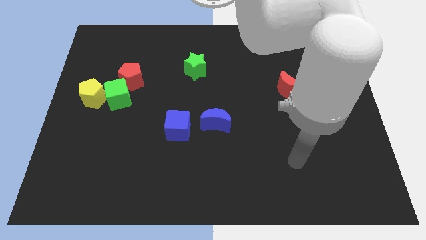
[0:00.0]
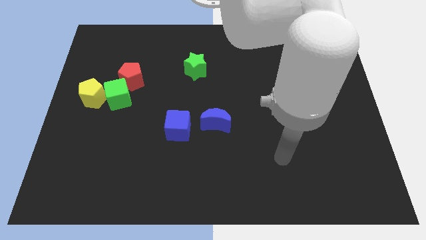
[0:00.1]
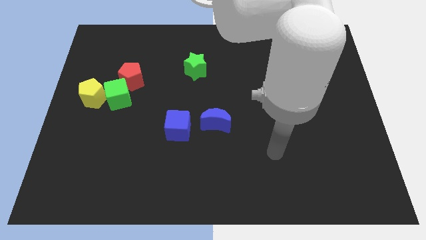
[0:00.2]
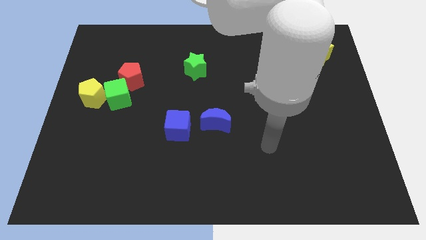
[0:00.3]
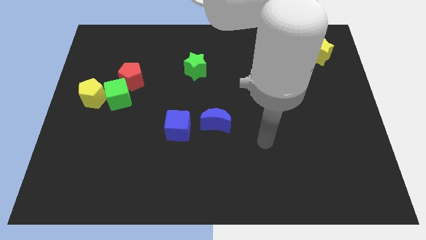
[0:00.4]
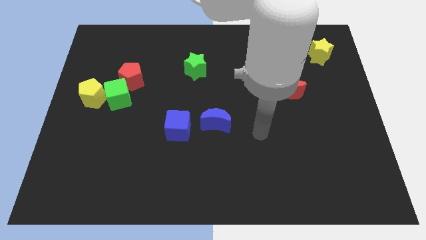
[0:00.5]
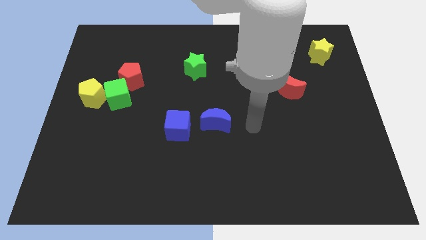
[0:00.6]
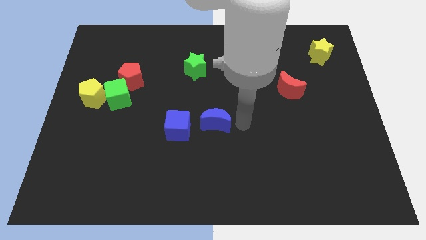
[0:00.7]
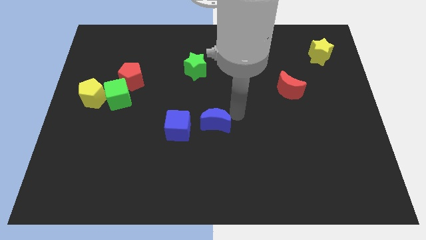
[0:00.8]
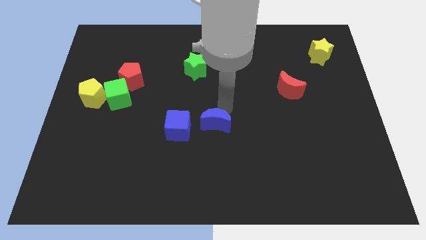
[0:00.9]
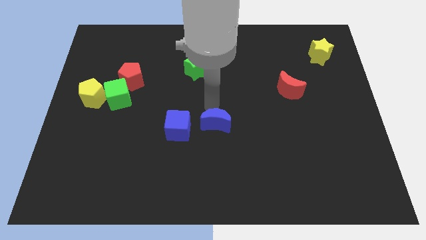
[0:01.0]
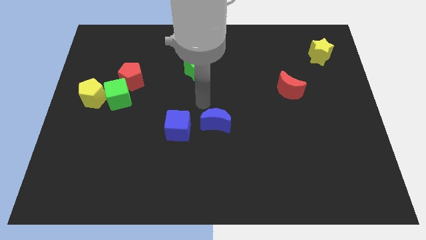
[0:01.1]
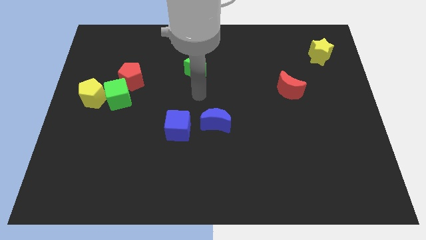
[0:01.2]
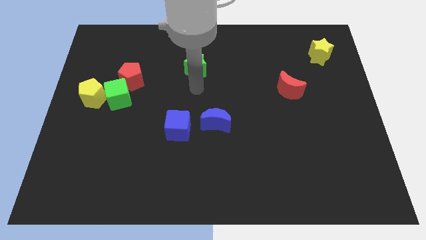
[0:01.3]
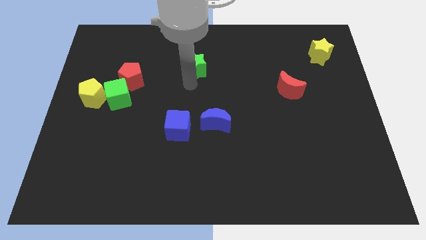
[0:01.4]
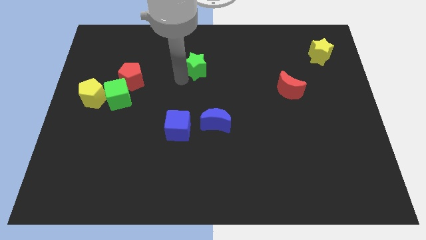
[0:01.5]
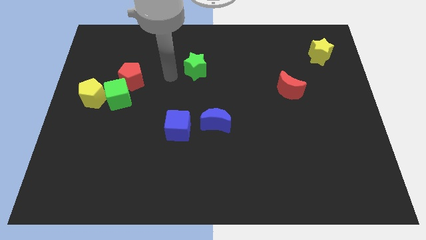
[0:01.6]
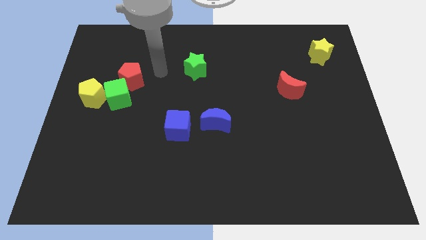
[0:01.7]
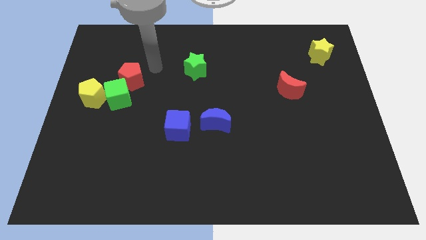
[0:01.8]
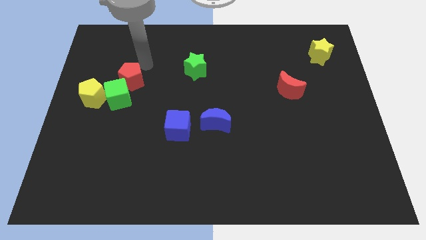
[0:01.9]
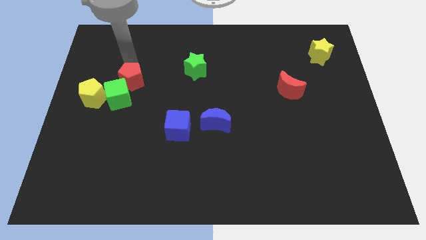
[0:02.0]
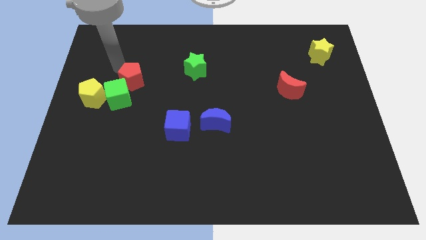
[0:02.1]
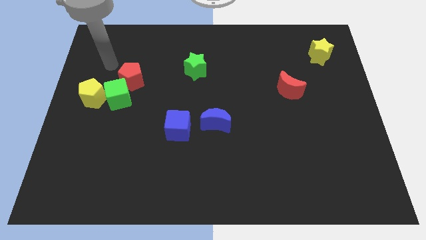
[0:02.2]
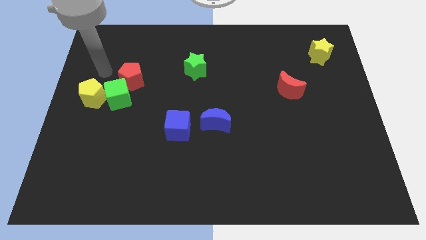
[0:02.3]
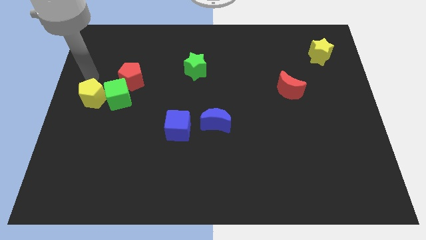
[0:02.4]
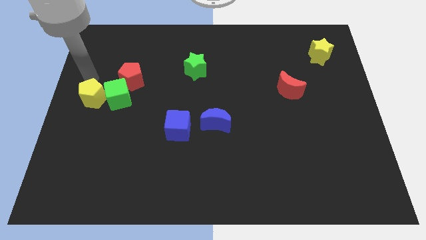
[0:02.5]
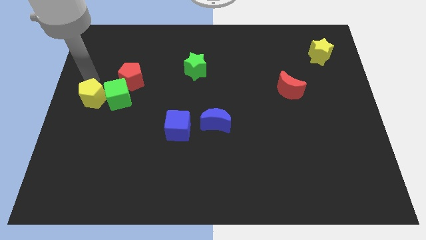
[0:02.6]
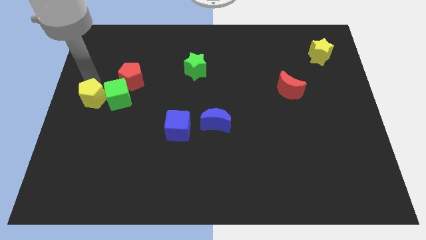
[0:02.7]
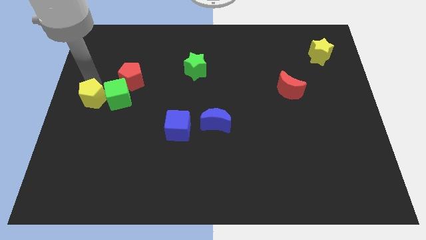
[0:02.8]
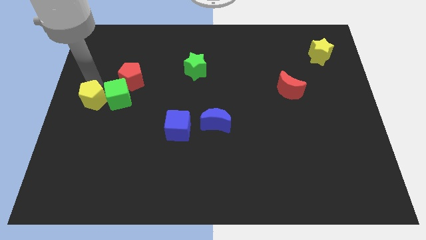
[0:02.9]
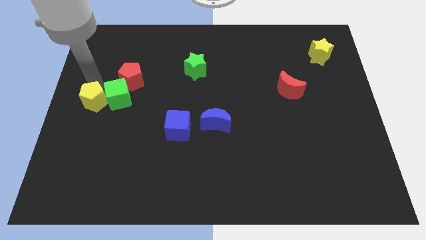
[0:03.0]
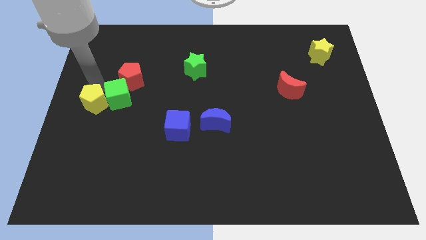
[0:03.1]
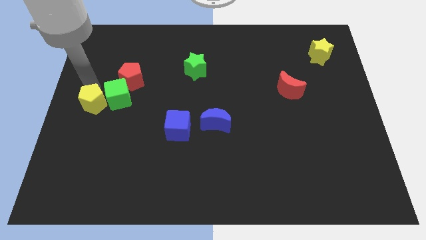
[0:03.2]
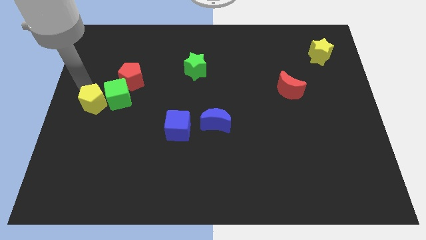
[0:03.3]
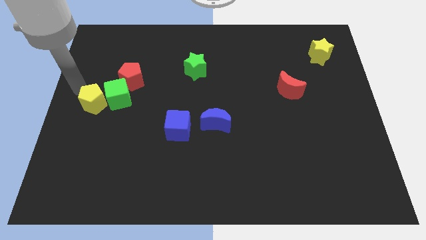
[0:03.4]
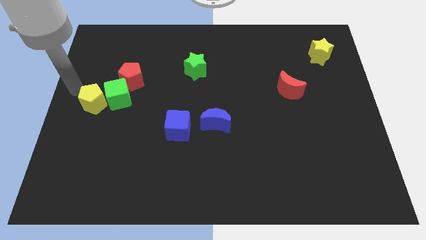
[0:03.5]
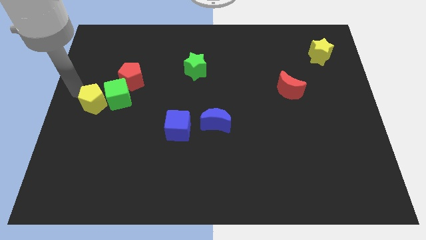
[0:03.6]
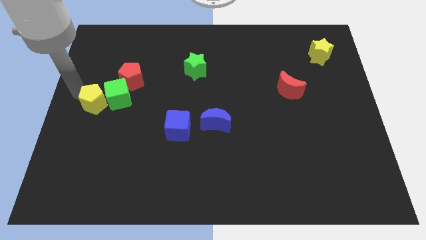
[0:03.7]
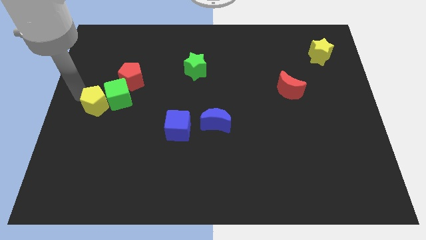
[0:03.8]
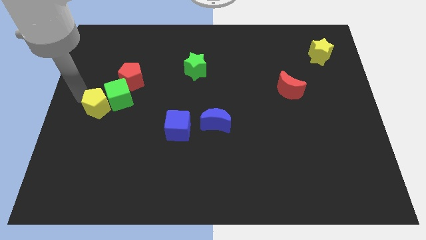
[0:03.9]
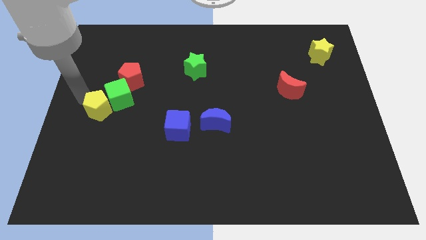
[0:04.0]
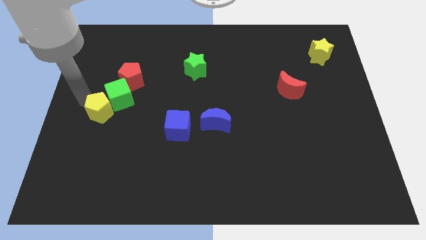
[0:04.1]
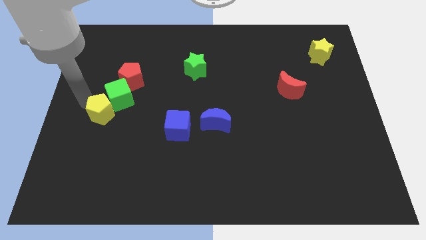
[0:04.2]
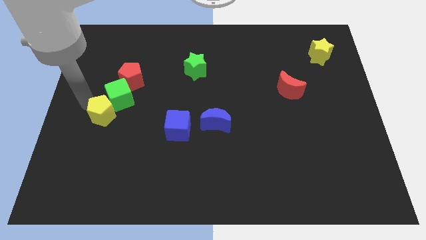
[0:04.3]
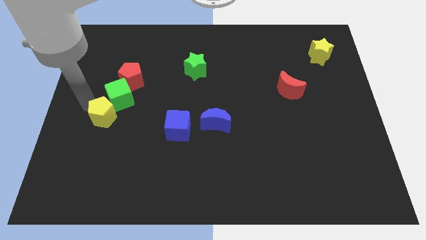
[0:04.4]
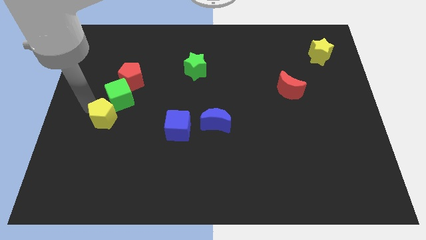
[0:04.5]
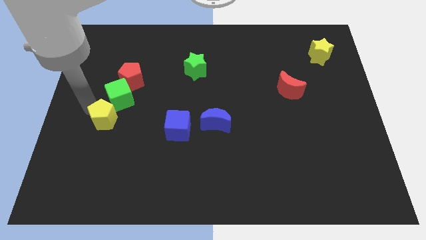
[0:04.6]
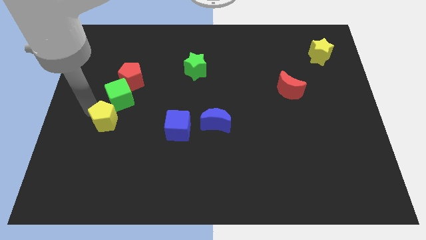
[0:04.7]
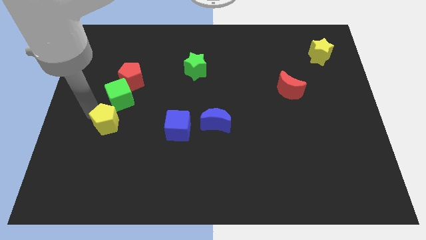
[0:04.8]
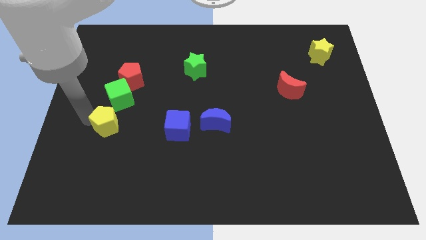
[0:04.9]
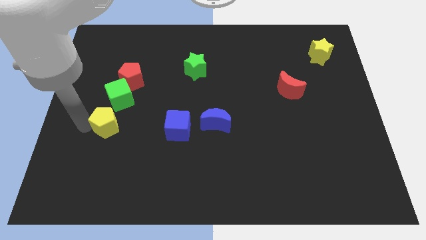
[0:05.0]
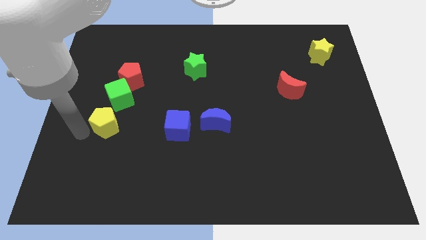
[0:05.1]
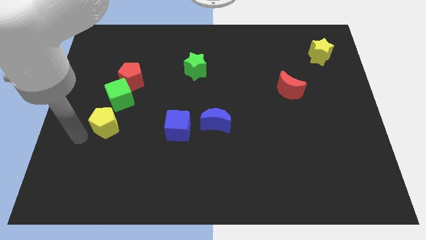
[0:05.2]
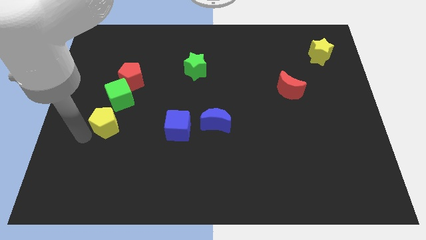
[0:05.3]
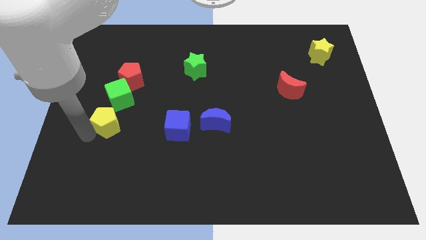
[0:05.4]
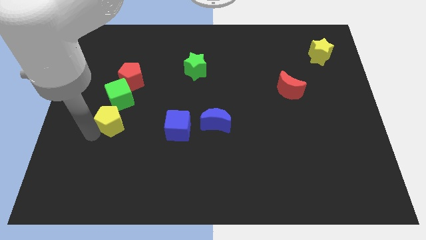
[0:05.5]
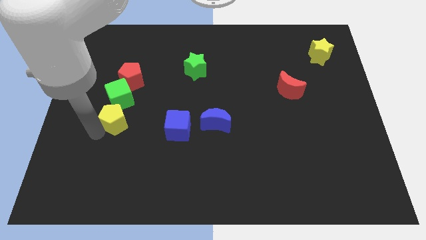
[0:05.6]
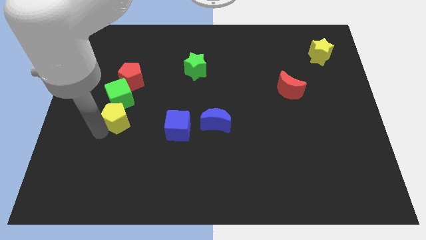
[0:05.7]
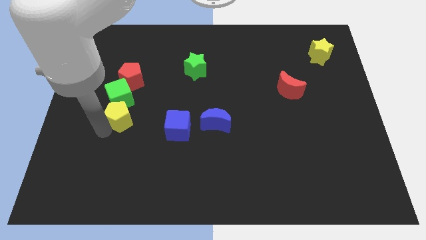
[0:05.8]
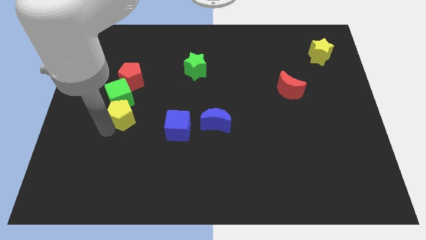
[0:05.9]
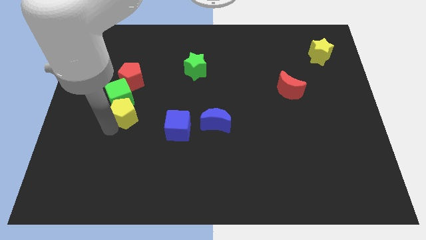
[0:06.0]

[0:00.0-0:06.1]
slide the yellow pentagon a little bit to the right

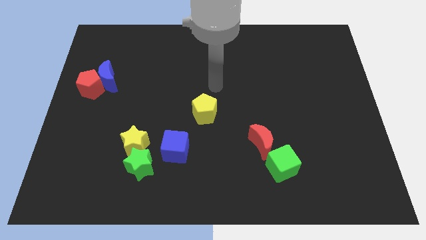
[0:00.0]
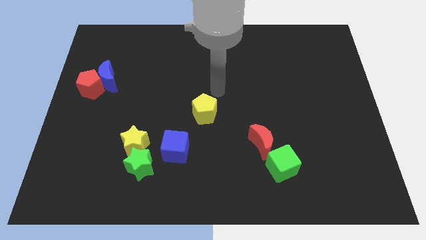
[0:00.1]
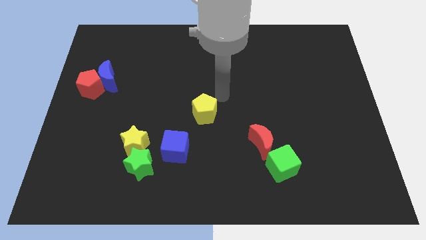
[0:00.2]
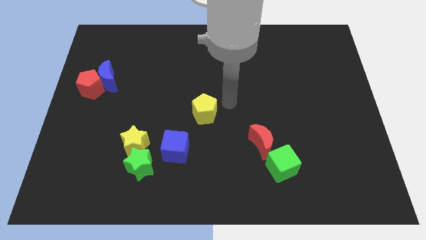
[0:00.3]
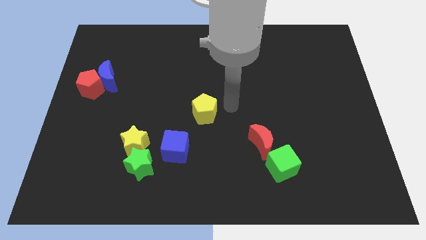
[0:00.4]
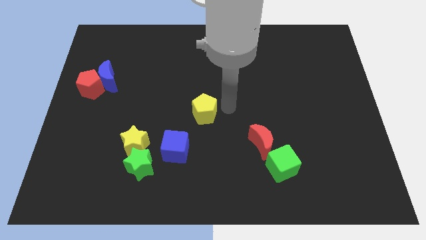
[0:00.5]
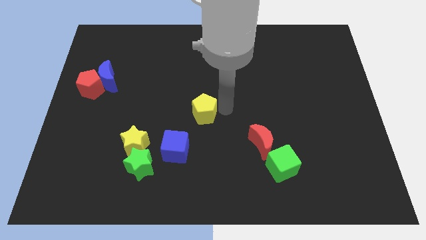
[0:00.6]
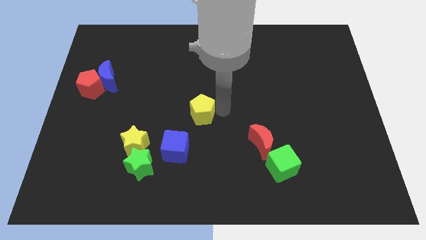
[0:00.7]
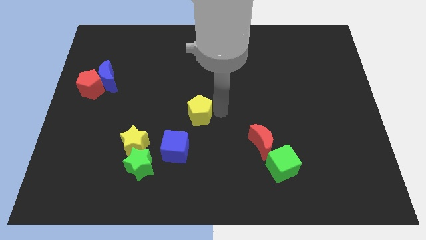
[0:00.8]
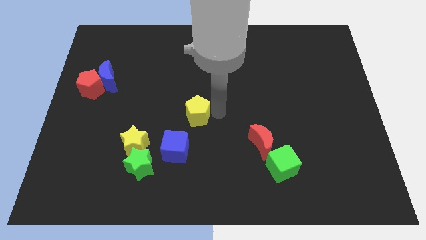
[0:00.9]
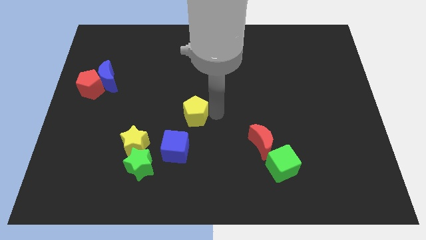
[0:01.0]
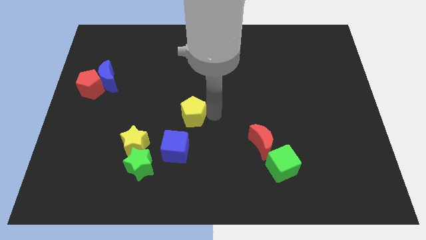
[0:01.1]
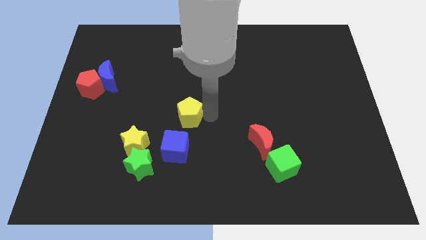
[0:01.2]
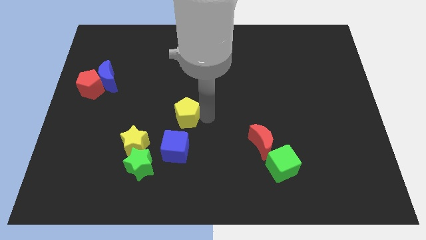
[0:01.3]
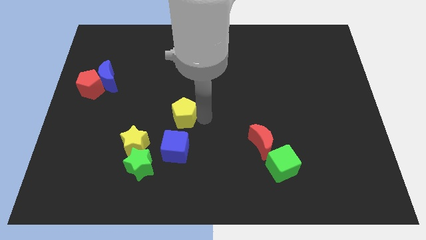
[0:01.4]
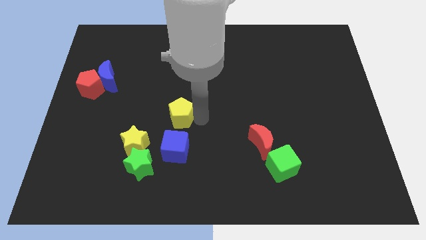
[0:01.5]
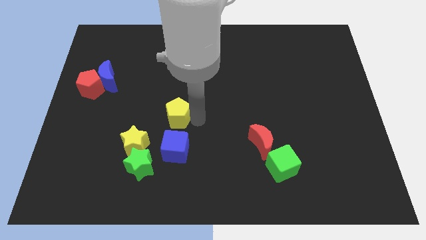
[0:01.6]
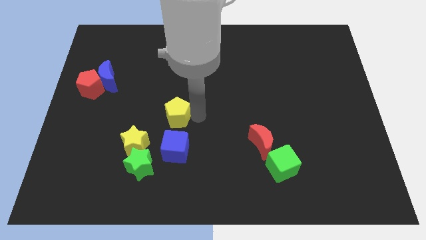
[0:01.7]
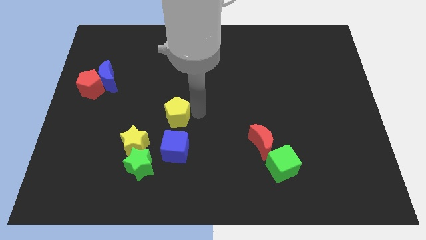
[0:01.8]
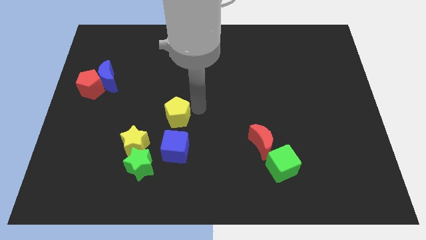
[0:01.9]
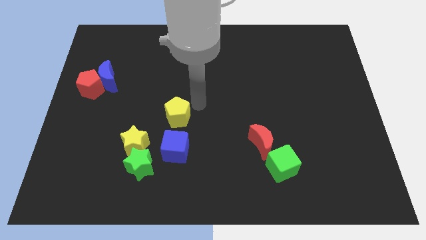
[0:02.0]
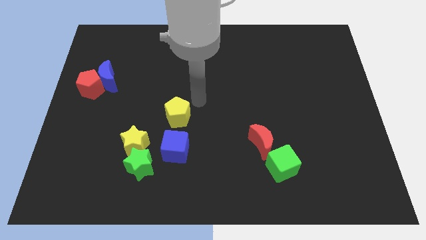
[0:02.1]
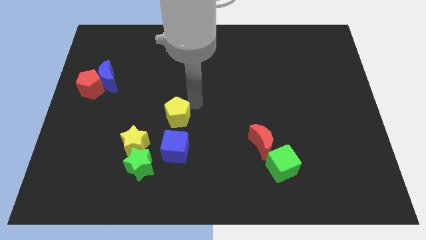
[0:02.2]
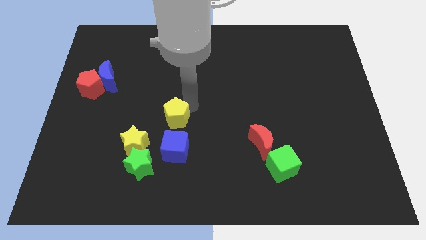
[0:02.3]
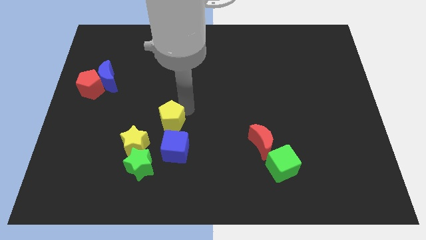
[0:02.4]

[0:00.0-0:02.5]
slide the yellow pentagon a little to the left
